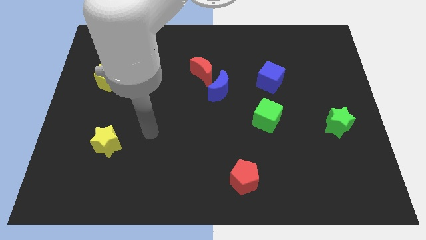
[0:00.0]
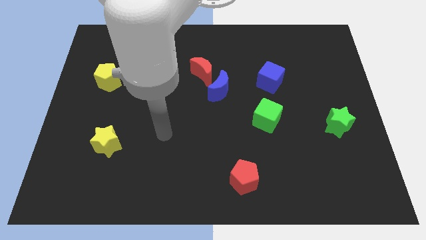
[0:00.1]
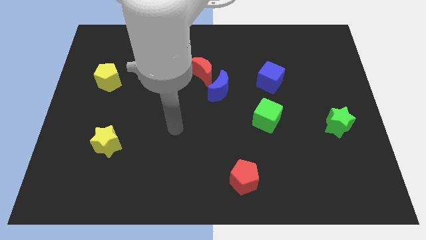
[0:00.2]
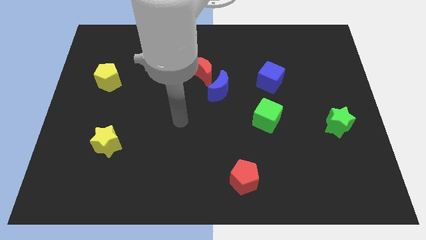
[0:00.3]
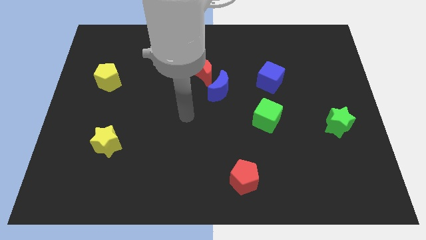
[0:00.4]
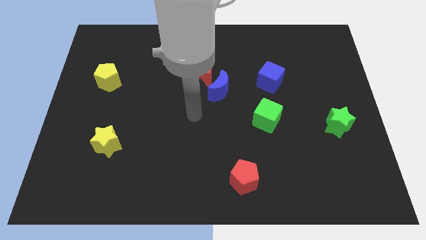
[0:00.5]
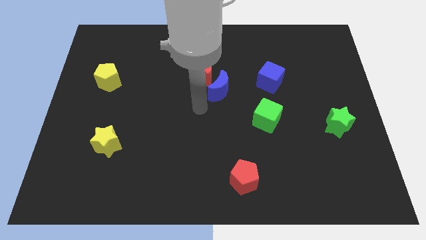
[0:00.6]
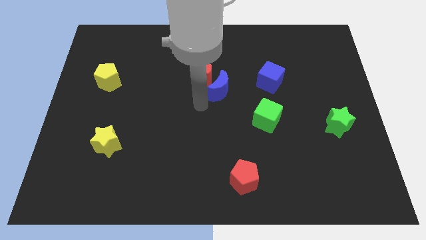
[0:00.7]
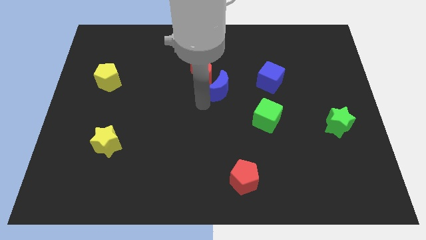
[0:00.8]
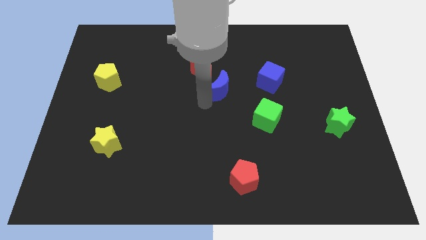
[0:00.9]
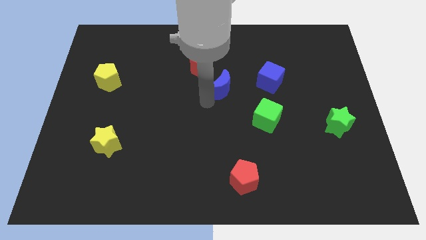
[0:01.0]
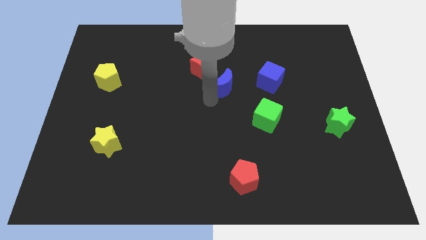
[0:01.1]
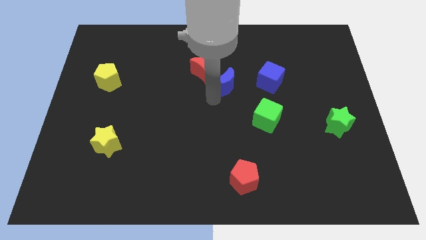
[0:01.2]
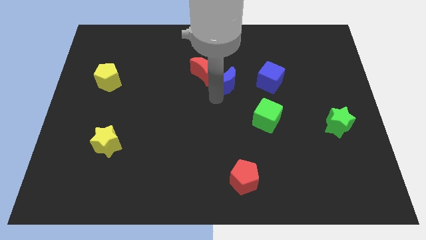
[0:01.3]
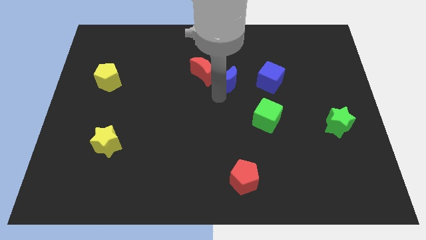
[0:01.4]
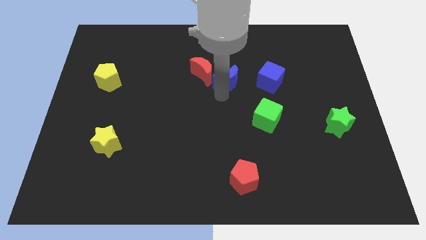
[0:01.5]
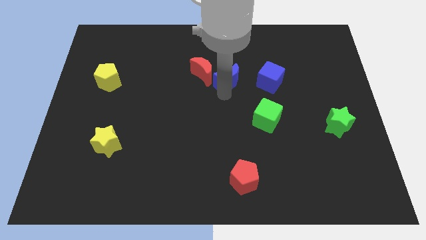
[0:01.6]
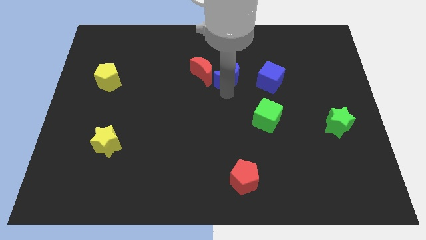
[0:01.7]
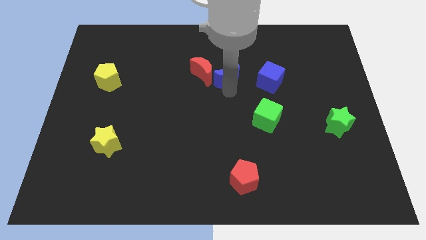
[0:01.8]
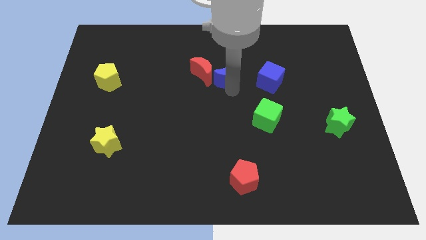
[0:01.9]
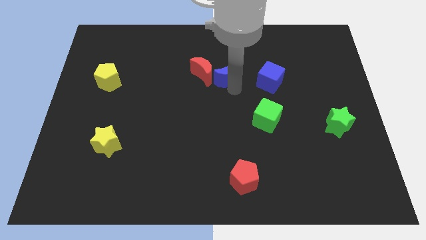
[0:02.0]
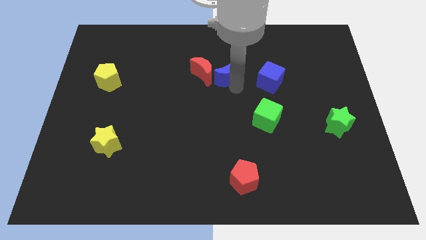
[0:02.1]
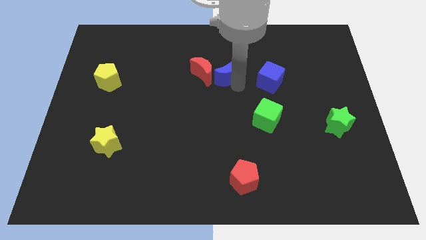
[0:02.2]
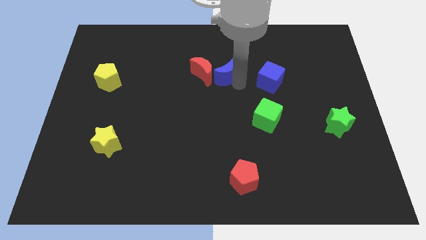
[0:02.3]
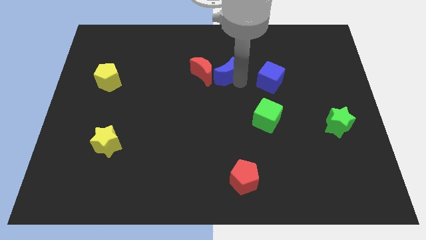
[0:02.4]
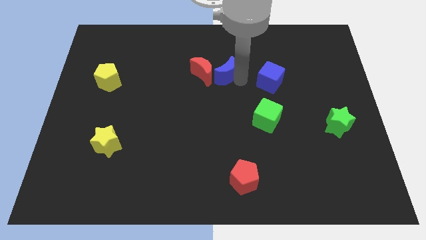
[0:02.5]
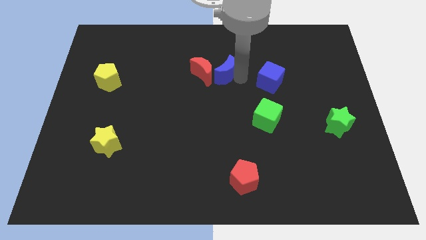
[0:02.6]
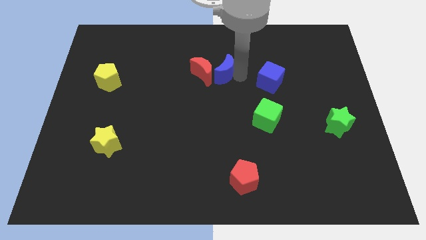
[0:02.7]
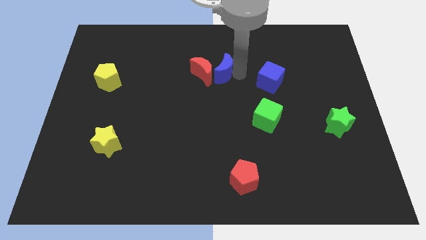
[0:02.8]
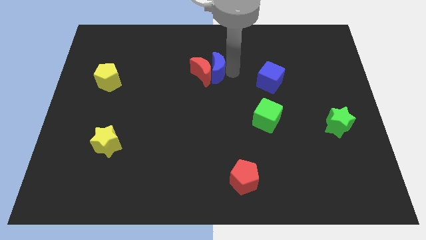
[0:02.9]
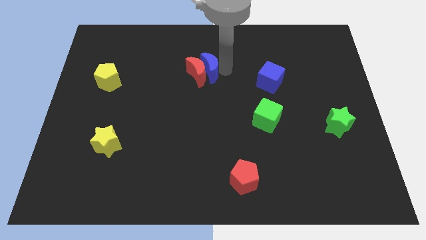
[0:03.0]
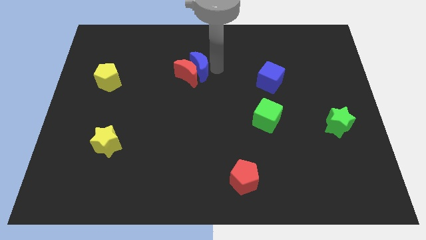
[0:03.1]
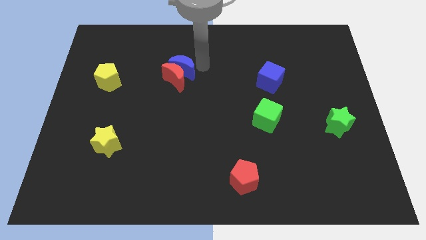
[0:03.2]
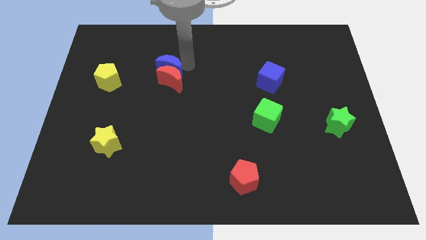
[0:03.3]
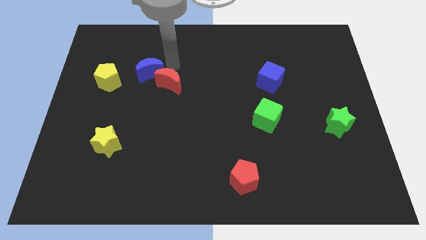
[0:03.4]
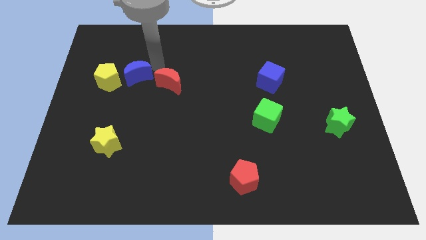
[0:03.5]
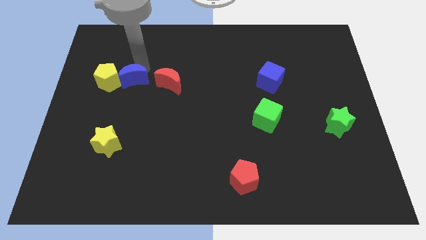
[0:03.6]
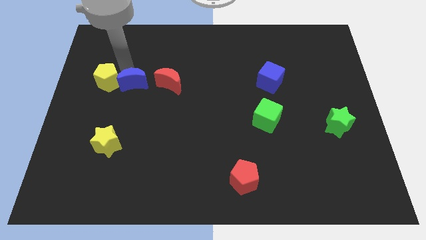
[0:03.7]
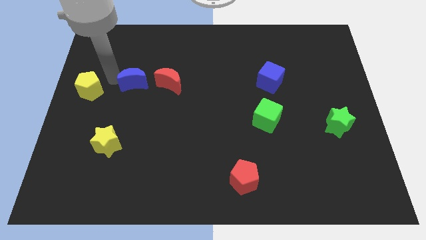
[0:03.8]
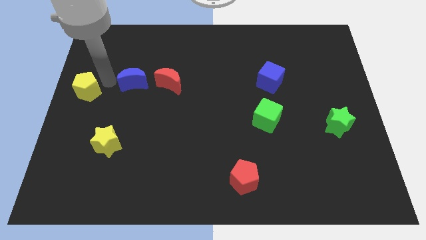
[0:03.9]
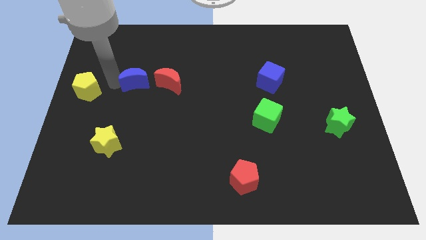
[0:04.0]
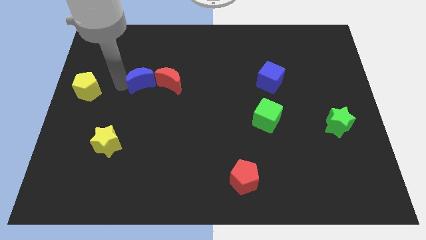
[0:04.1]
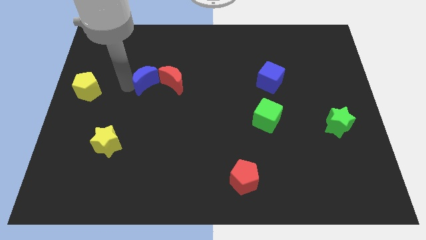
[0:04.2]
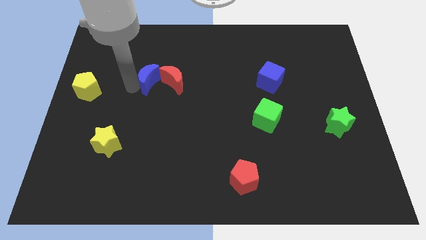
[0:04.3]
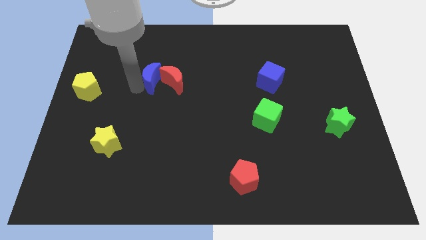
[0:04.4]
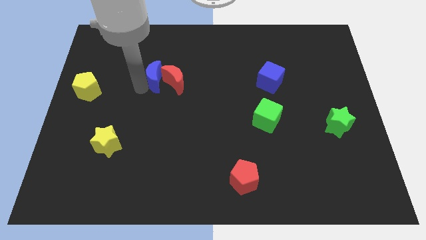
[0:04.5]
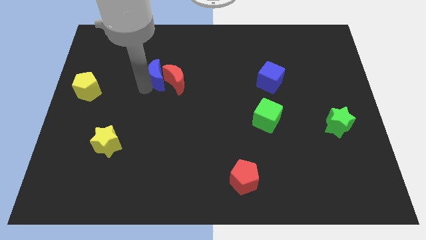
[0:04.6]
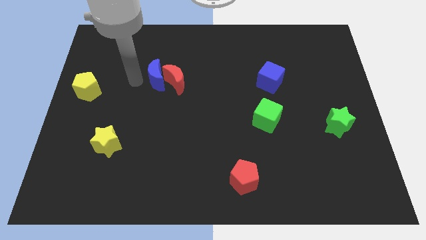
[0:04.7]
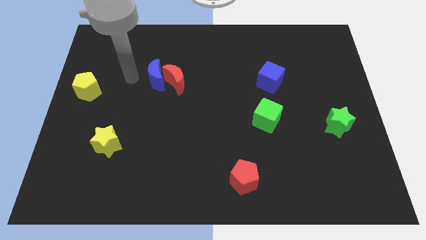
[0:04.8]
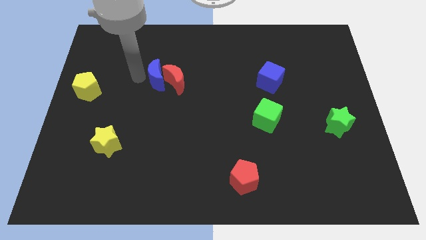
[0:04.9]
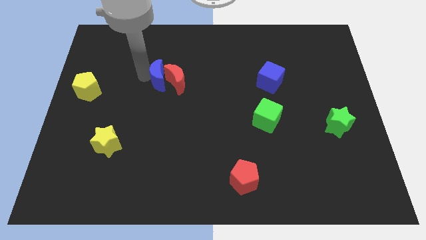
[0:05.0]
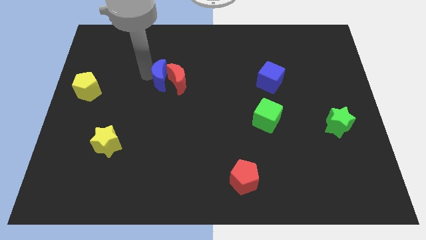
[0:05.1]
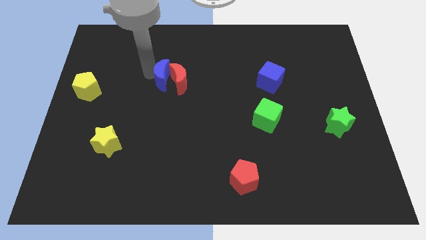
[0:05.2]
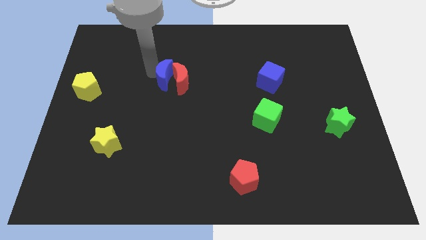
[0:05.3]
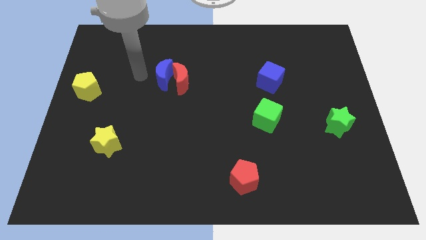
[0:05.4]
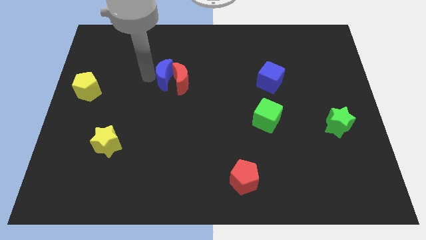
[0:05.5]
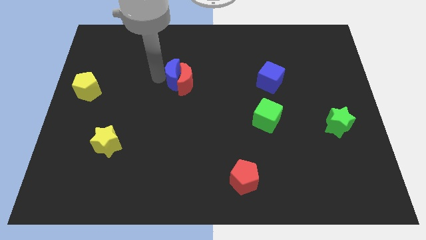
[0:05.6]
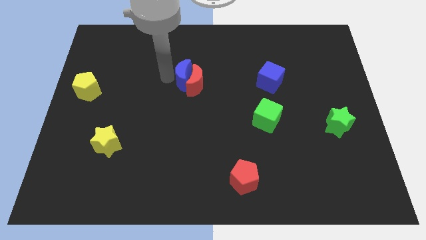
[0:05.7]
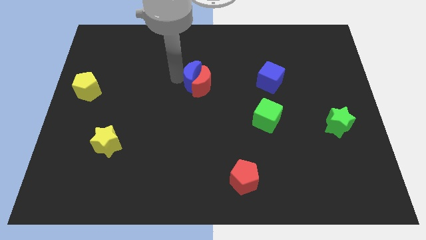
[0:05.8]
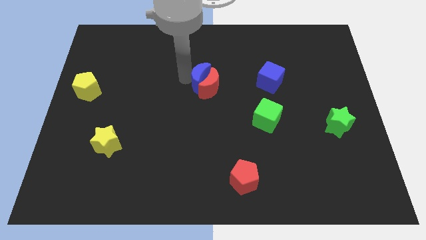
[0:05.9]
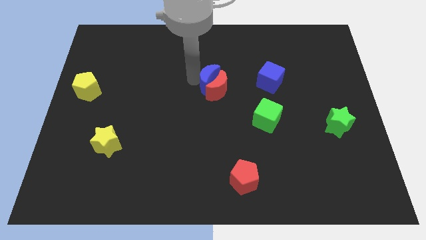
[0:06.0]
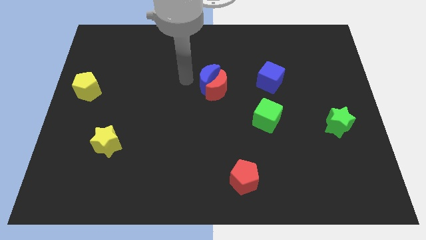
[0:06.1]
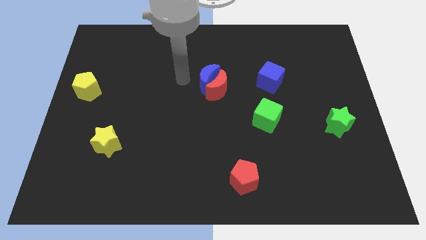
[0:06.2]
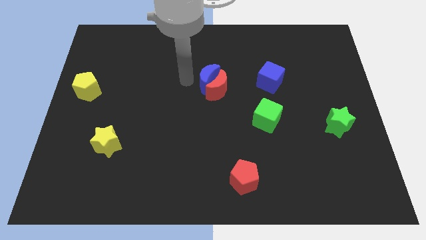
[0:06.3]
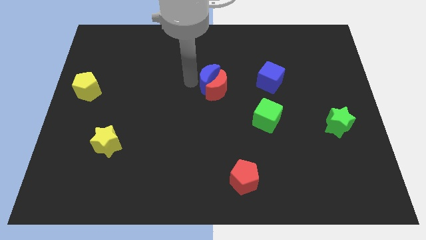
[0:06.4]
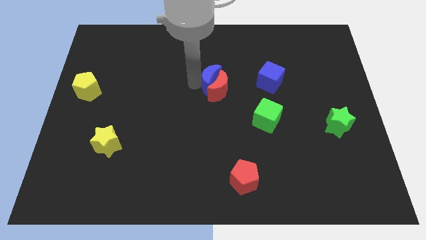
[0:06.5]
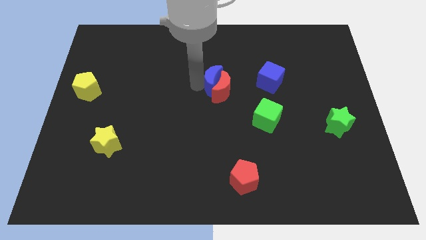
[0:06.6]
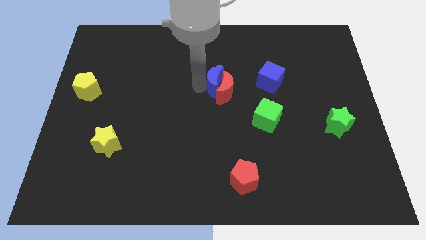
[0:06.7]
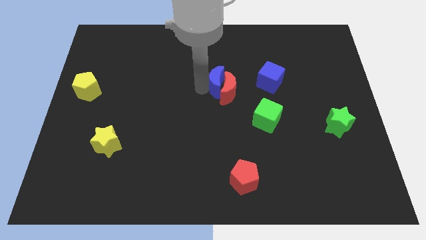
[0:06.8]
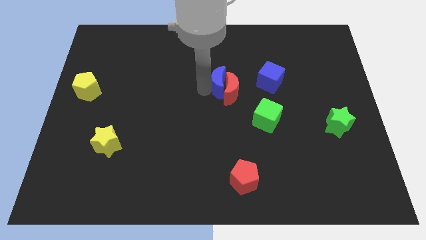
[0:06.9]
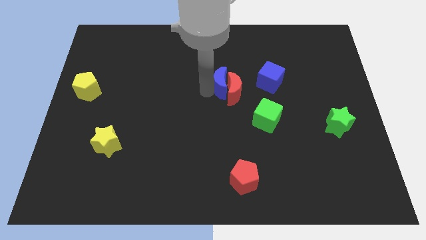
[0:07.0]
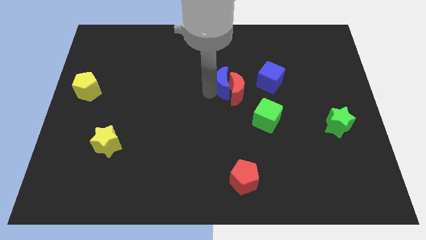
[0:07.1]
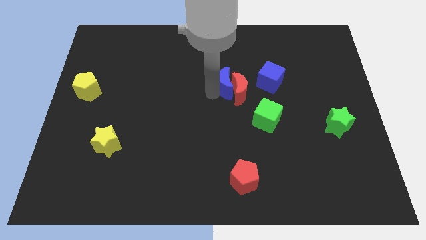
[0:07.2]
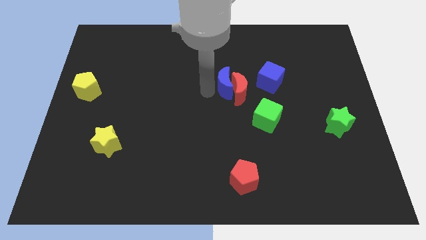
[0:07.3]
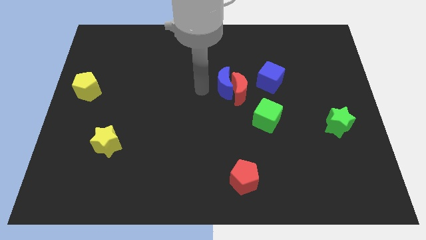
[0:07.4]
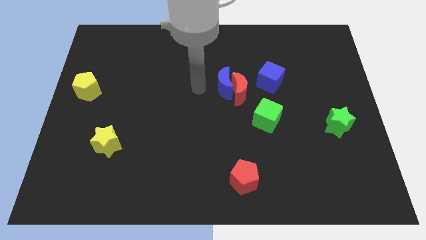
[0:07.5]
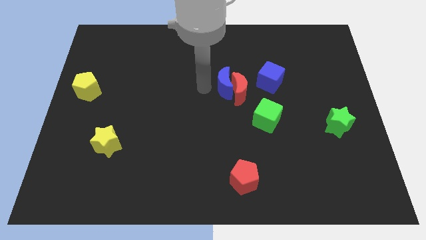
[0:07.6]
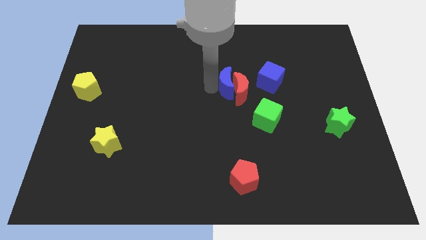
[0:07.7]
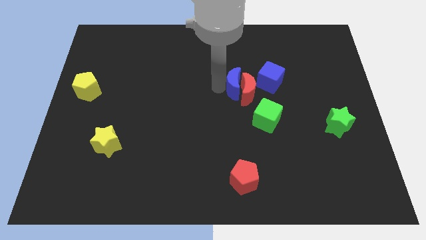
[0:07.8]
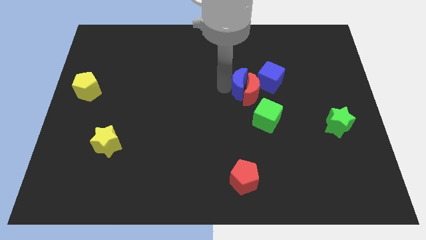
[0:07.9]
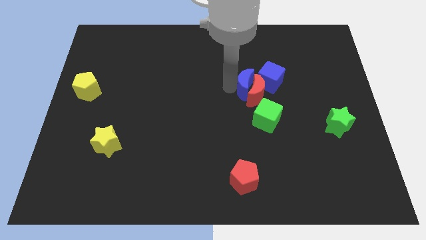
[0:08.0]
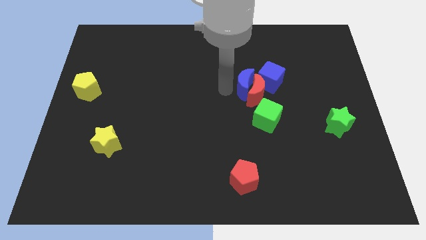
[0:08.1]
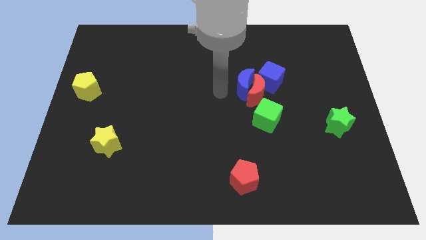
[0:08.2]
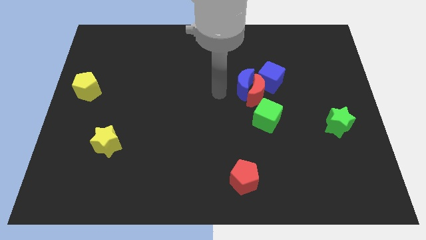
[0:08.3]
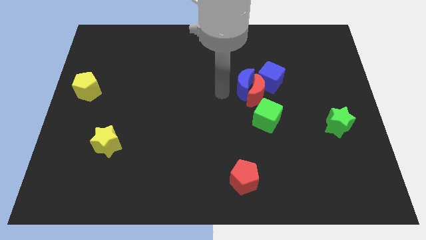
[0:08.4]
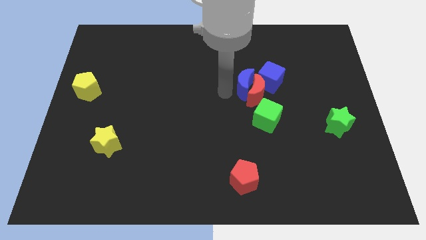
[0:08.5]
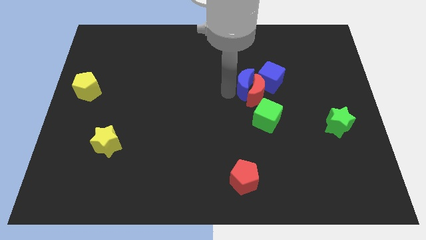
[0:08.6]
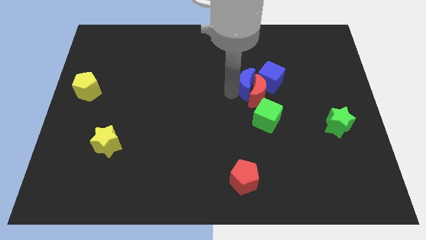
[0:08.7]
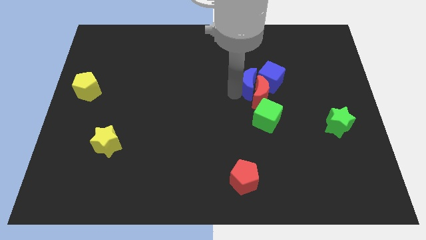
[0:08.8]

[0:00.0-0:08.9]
put the blue moon towards the blue cube
